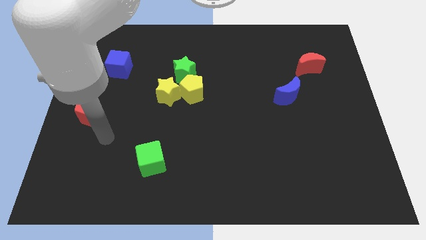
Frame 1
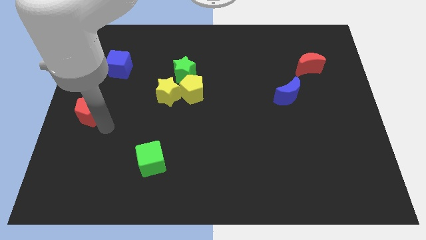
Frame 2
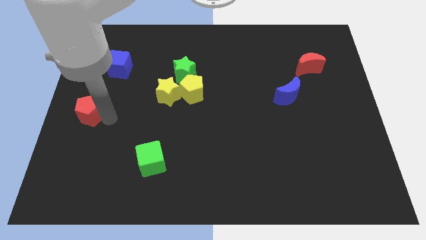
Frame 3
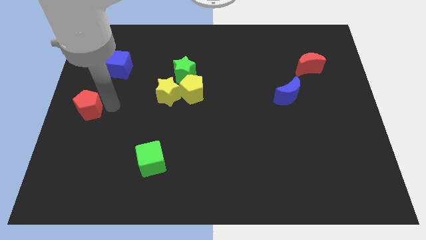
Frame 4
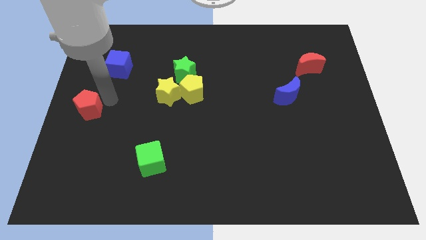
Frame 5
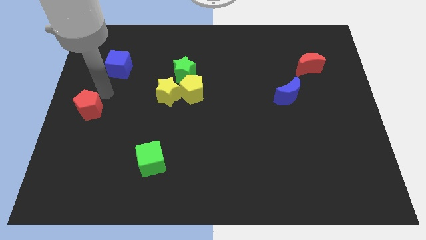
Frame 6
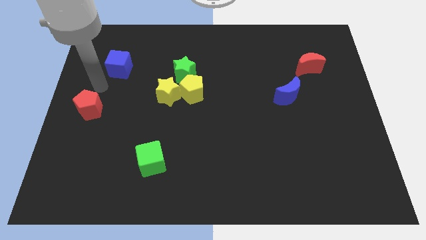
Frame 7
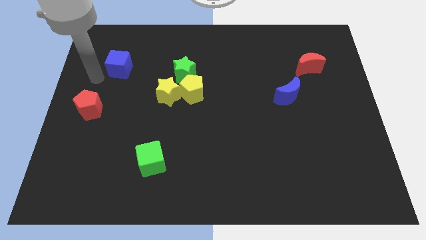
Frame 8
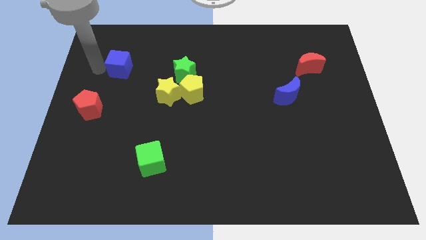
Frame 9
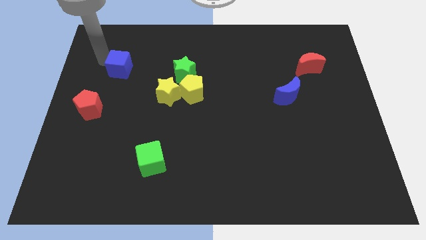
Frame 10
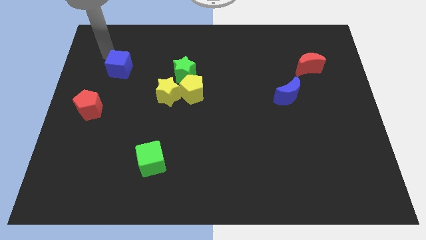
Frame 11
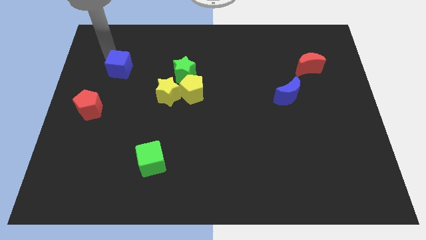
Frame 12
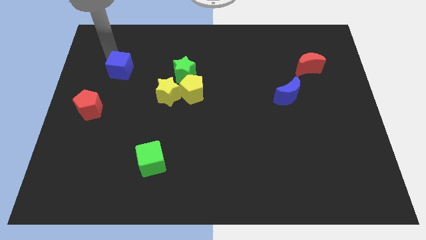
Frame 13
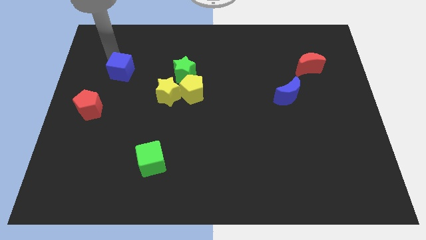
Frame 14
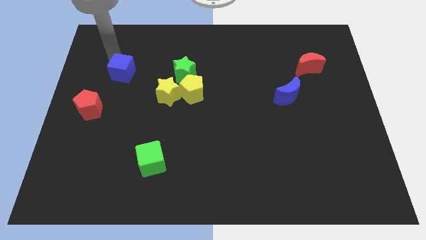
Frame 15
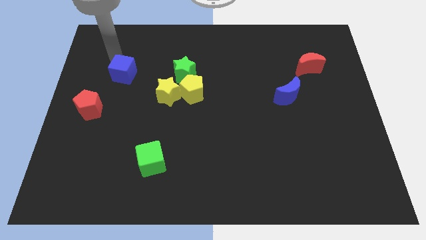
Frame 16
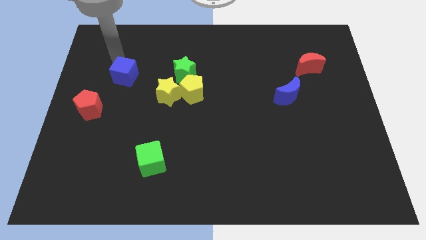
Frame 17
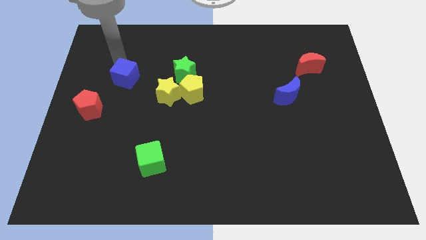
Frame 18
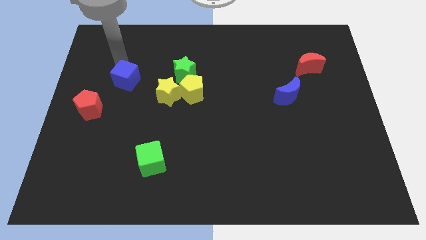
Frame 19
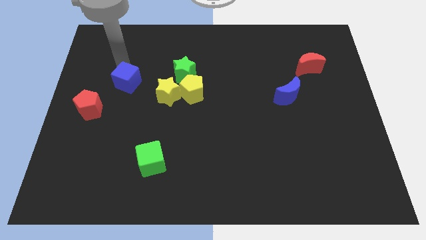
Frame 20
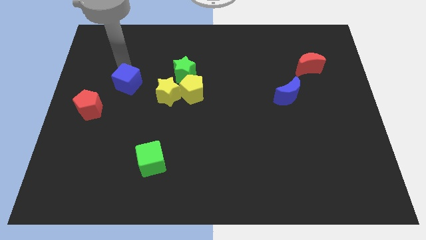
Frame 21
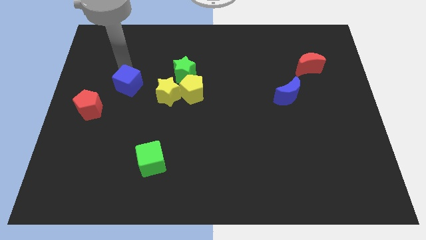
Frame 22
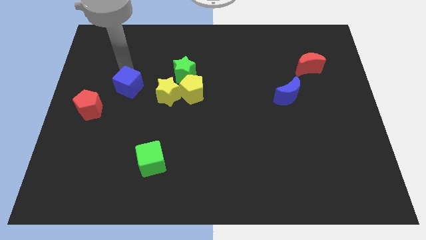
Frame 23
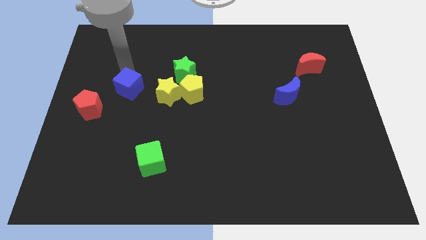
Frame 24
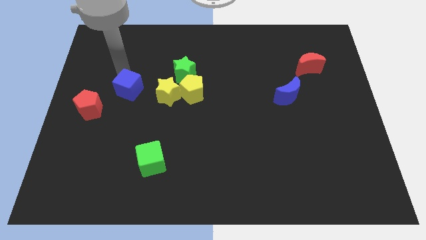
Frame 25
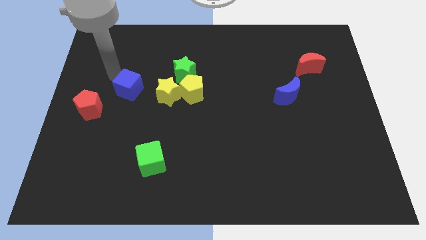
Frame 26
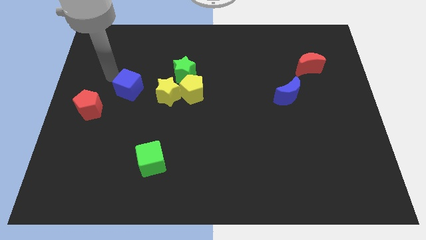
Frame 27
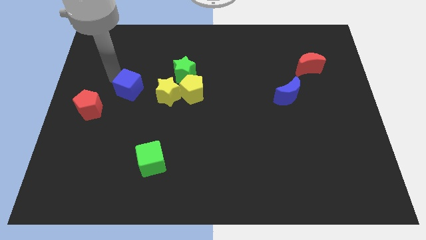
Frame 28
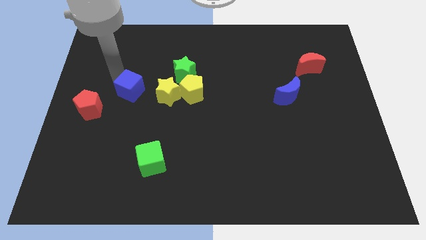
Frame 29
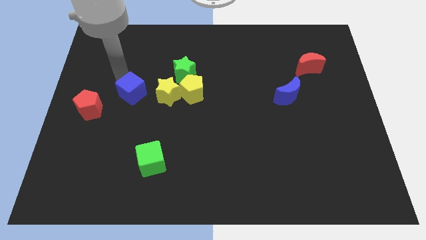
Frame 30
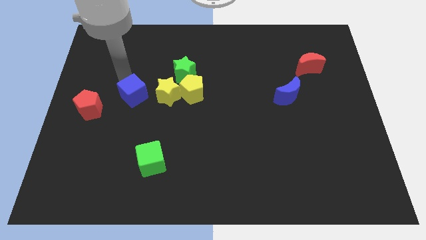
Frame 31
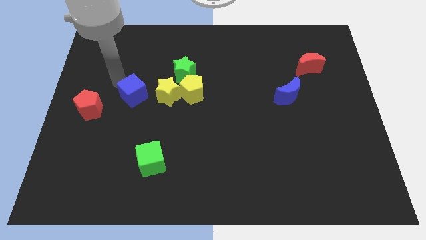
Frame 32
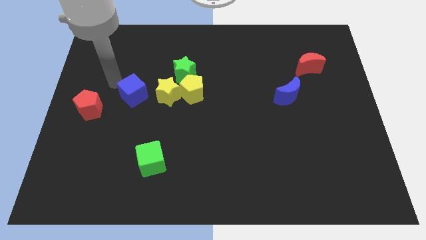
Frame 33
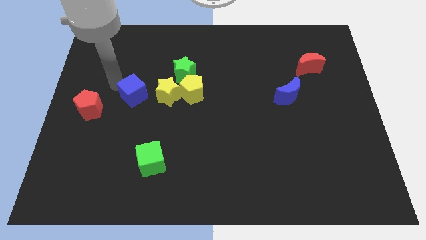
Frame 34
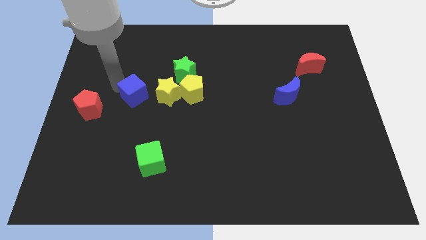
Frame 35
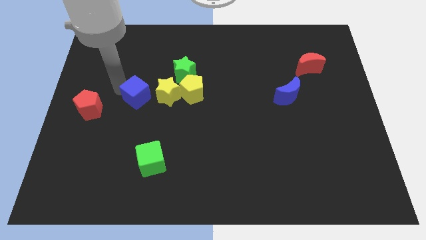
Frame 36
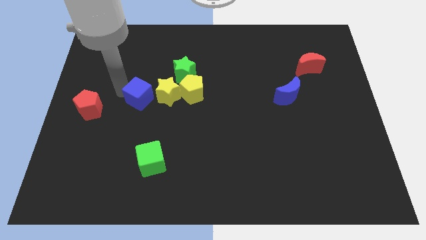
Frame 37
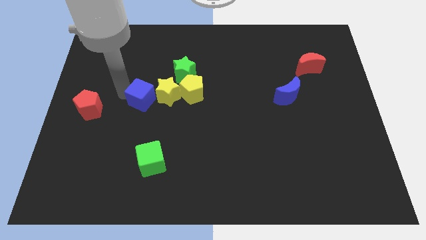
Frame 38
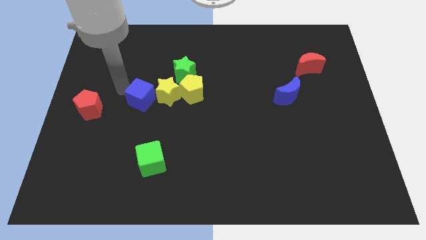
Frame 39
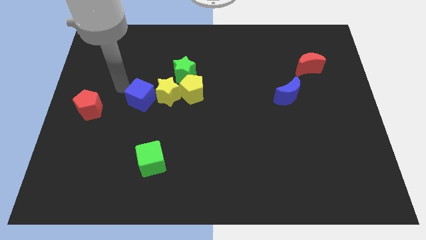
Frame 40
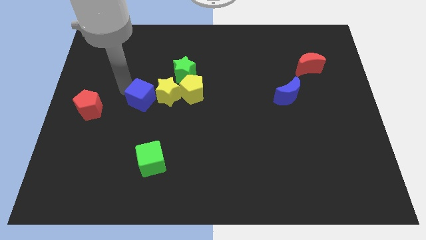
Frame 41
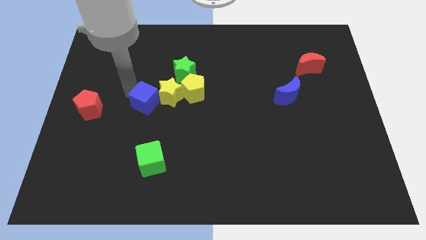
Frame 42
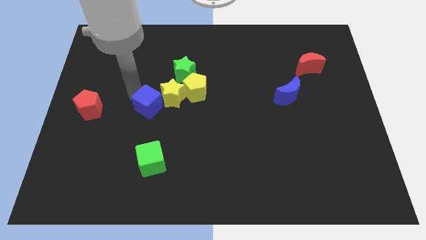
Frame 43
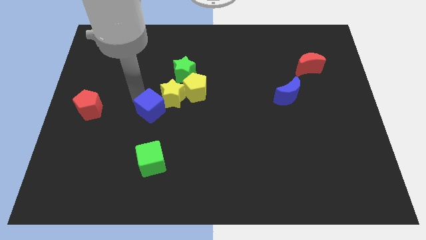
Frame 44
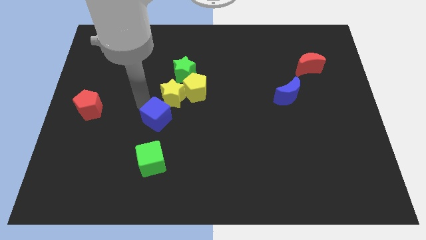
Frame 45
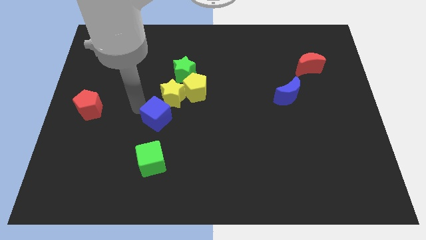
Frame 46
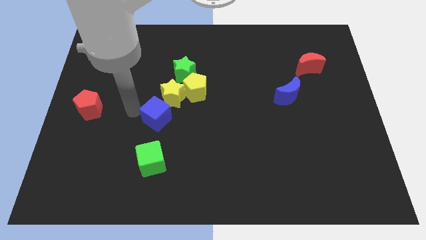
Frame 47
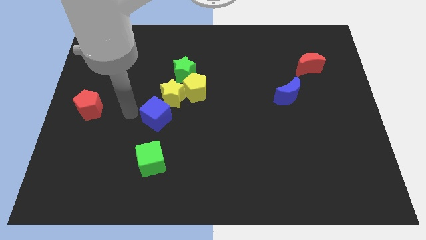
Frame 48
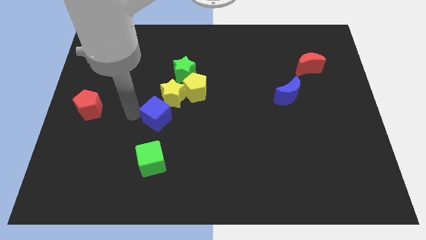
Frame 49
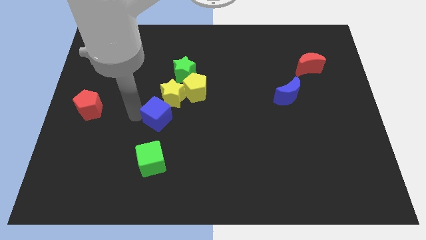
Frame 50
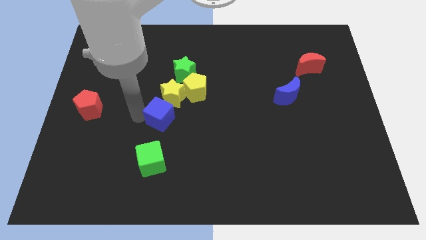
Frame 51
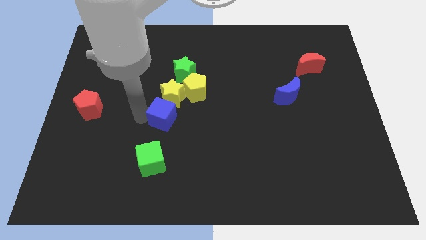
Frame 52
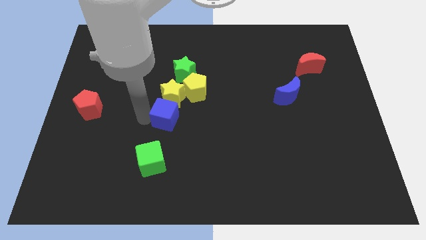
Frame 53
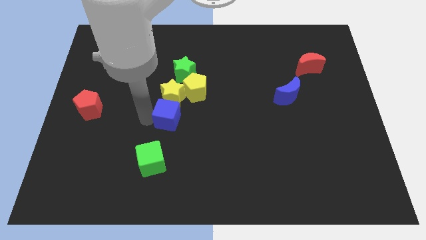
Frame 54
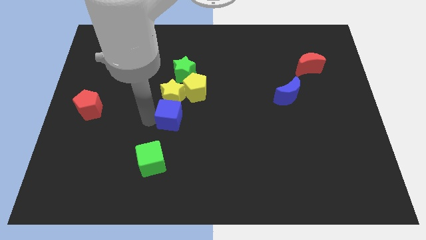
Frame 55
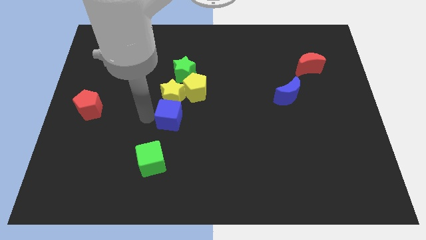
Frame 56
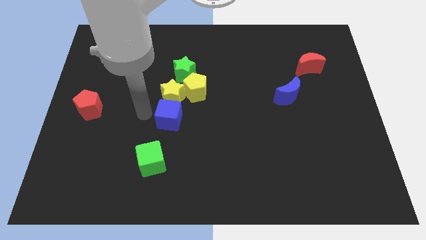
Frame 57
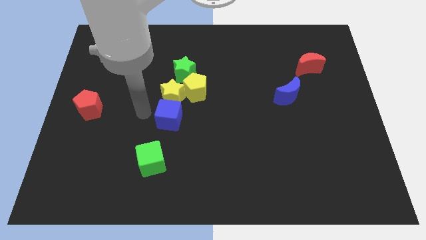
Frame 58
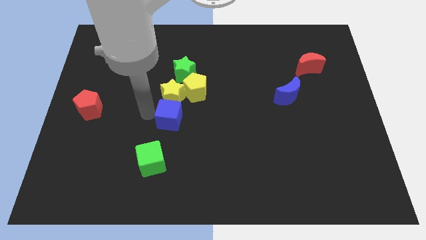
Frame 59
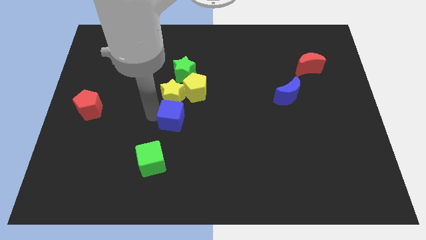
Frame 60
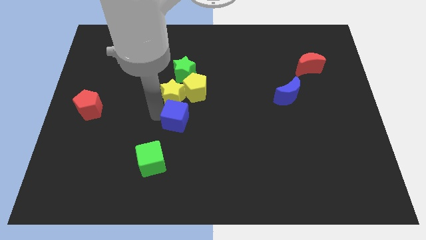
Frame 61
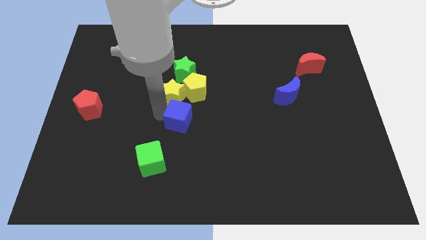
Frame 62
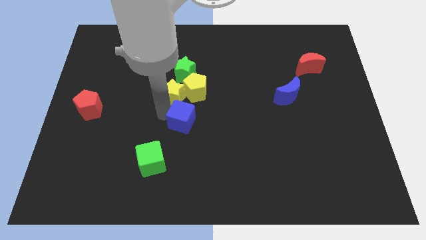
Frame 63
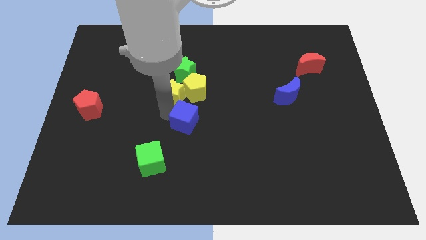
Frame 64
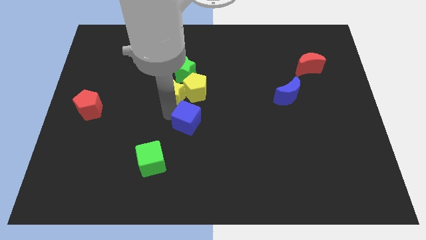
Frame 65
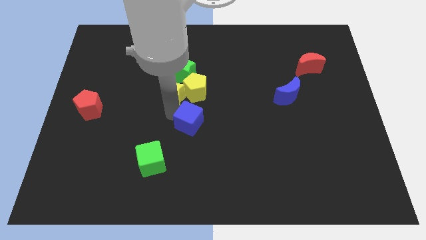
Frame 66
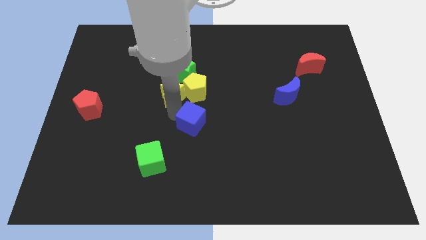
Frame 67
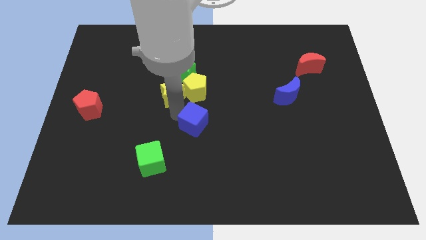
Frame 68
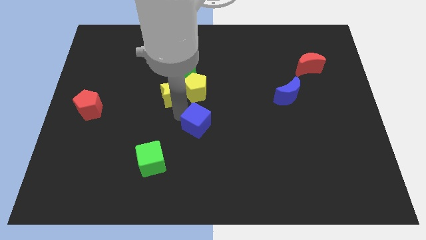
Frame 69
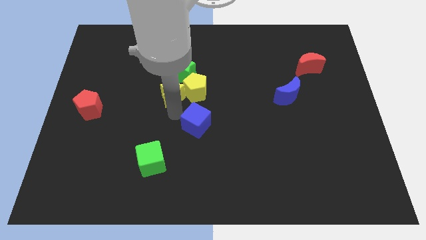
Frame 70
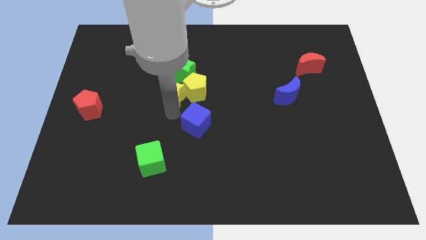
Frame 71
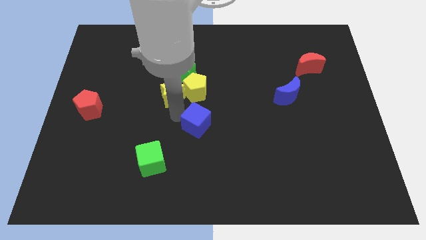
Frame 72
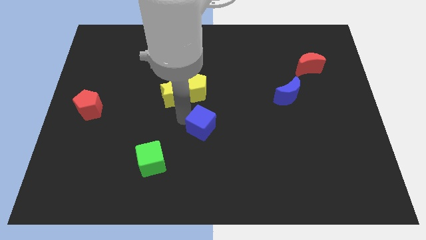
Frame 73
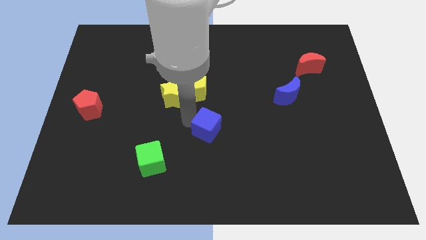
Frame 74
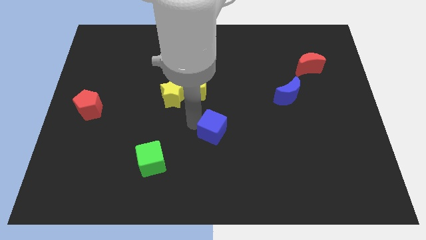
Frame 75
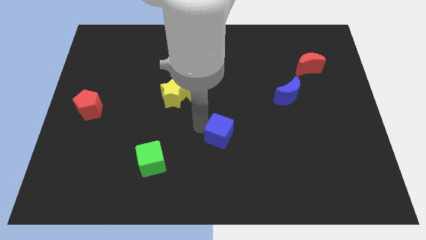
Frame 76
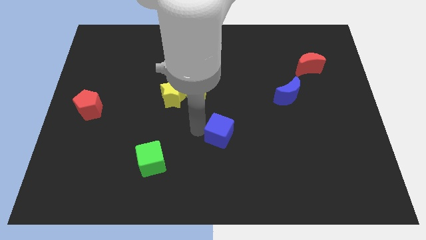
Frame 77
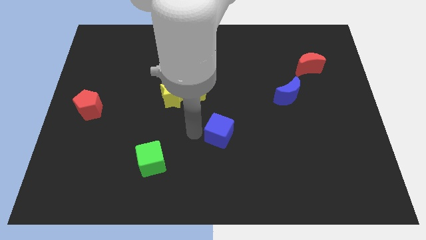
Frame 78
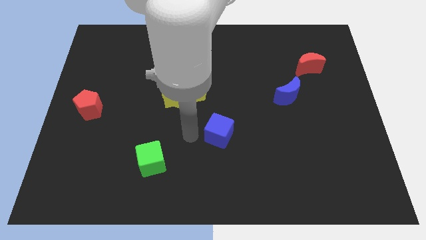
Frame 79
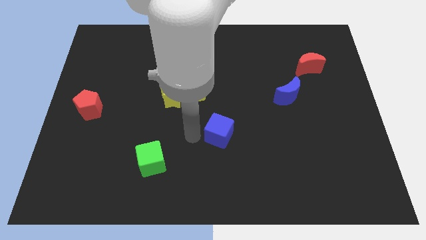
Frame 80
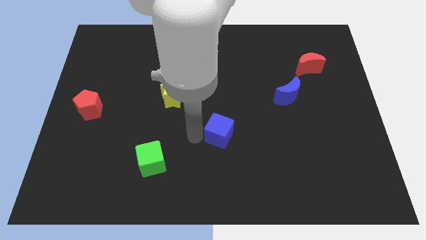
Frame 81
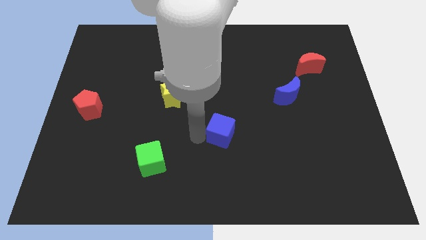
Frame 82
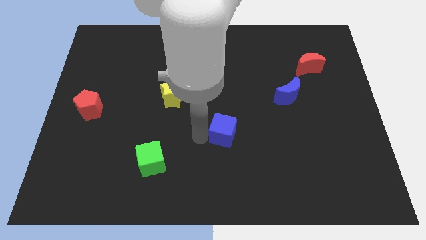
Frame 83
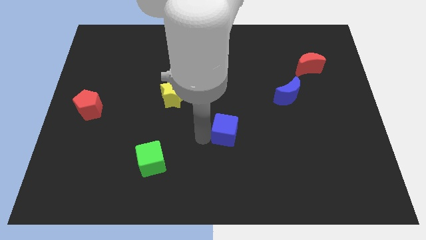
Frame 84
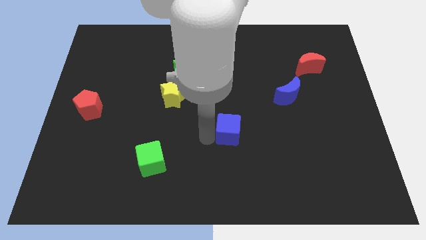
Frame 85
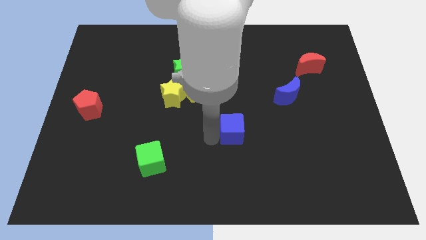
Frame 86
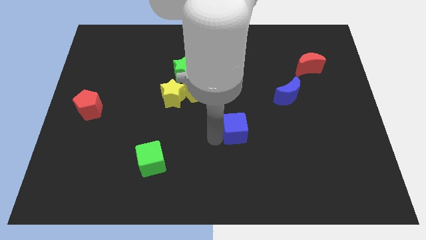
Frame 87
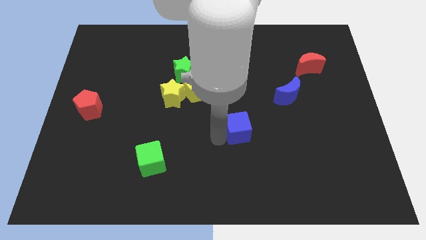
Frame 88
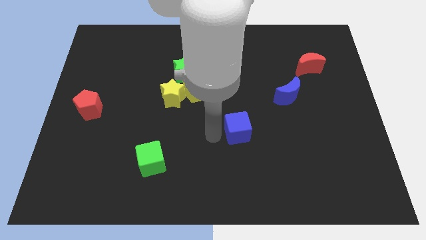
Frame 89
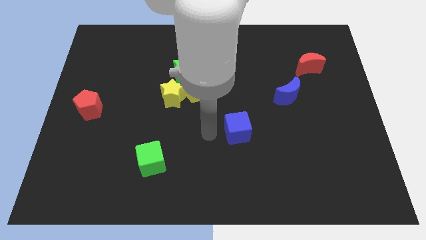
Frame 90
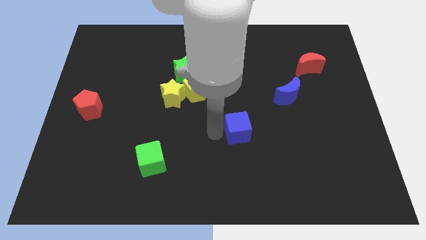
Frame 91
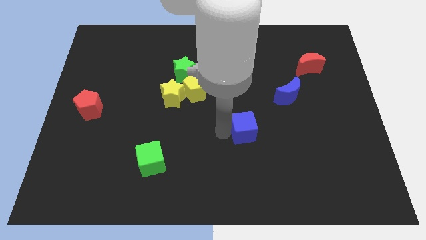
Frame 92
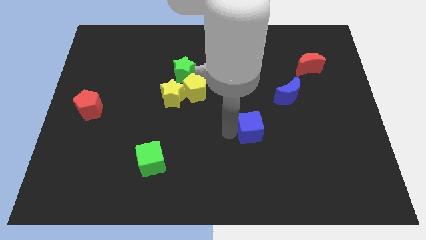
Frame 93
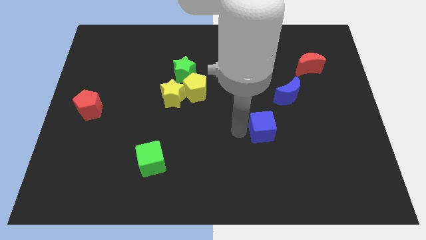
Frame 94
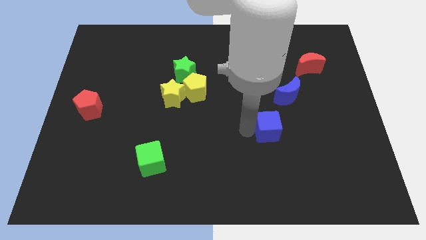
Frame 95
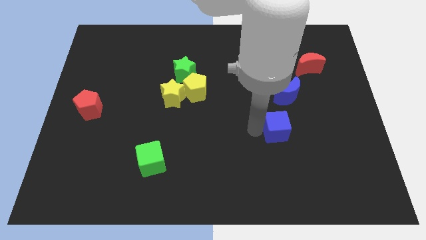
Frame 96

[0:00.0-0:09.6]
slide the blue cube to the bottom of the blue moon
